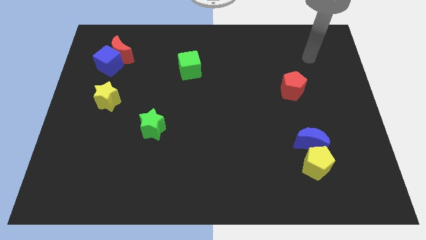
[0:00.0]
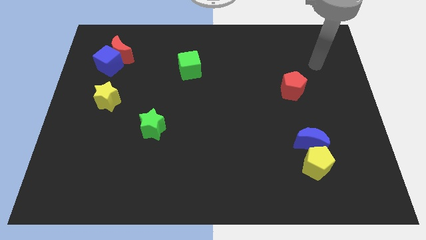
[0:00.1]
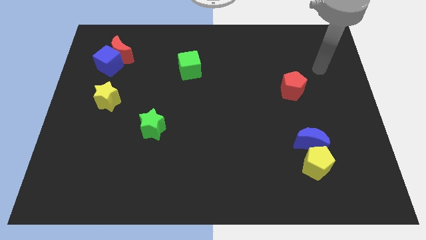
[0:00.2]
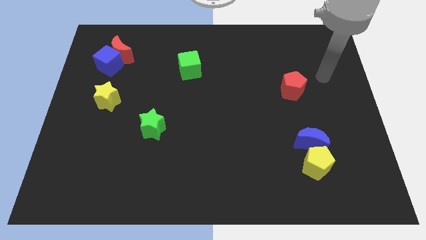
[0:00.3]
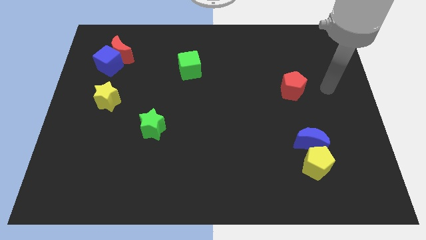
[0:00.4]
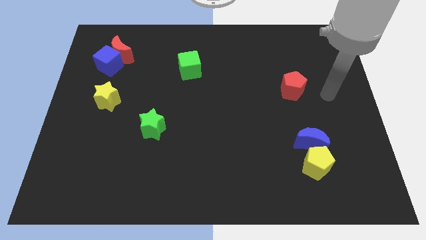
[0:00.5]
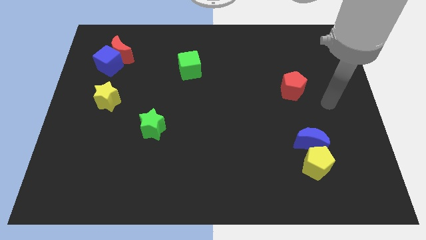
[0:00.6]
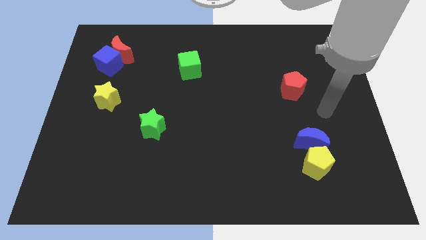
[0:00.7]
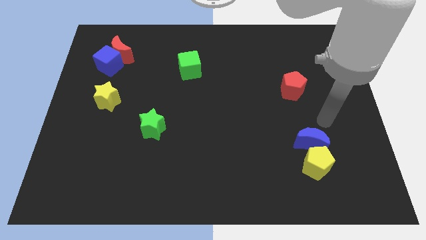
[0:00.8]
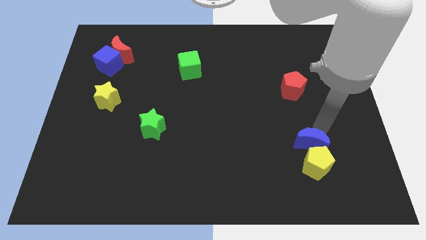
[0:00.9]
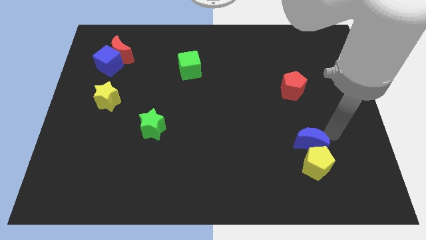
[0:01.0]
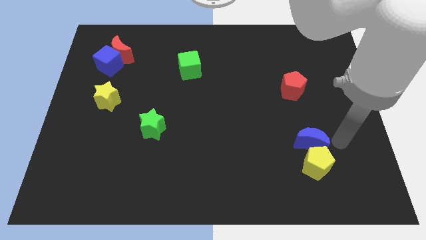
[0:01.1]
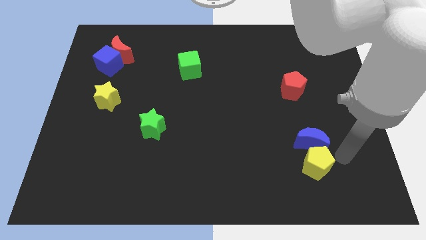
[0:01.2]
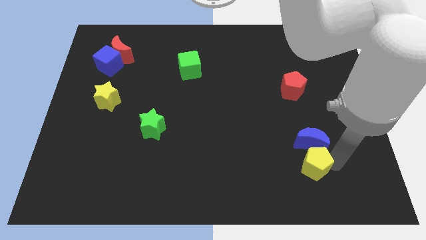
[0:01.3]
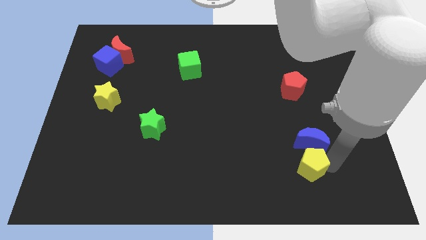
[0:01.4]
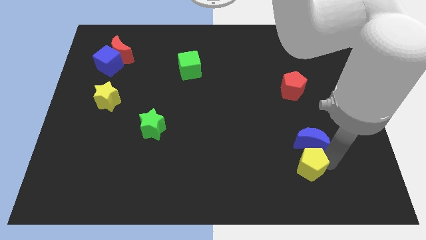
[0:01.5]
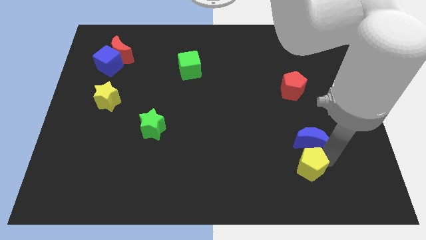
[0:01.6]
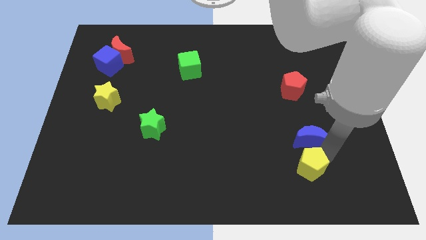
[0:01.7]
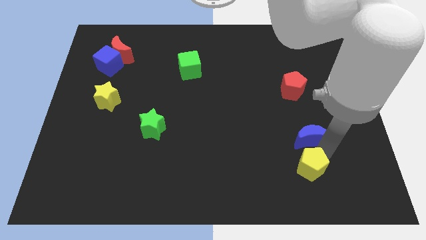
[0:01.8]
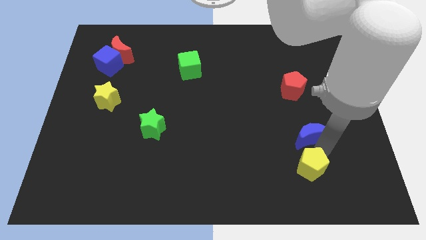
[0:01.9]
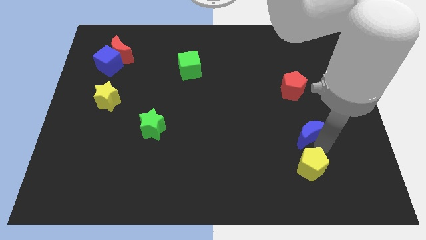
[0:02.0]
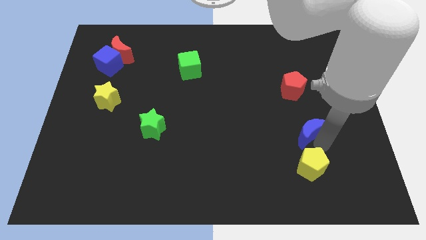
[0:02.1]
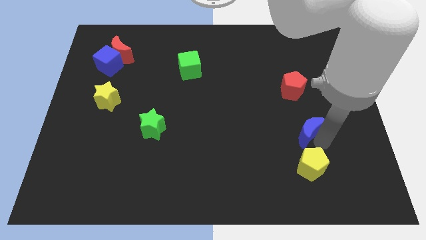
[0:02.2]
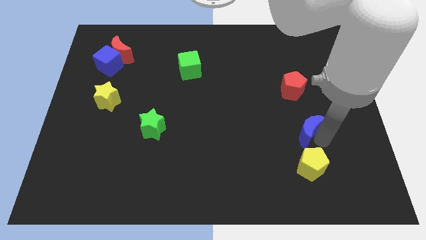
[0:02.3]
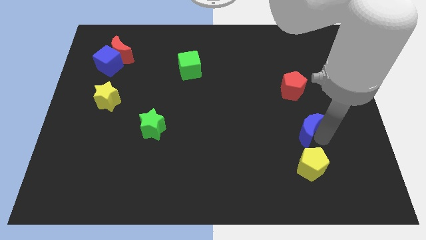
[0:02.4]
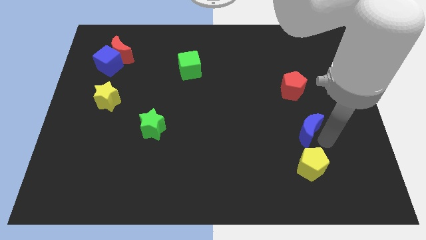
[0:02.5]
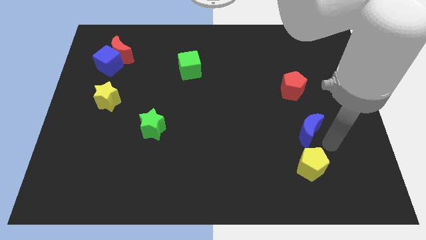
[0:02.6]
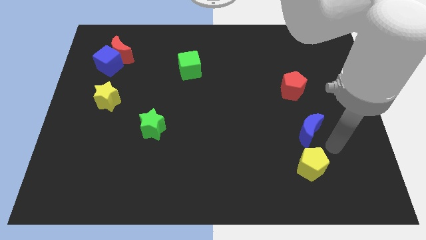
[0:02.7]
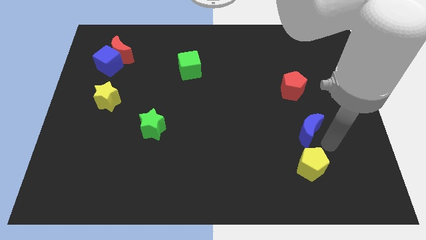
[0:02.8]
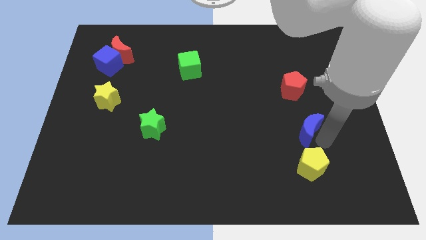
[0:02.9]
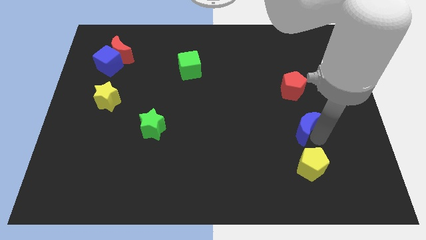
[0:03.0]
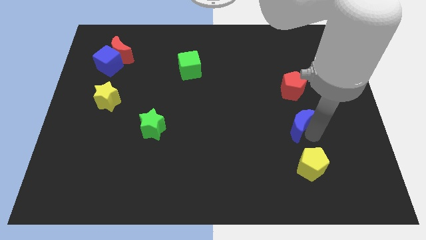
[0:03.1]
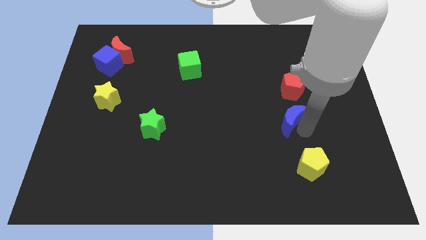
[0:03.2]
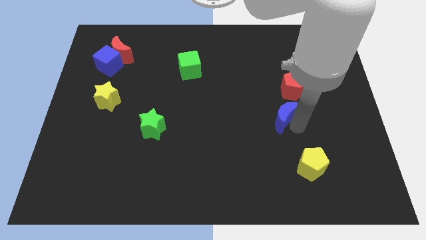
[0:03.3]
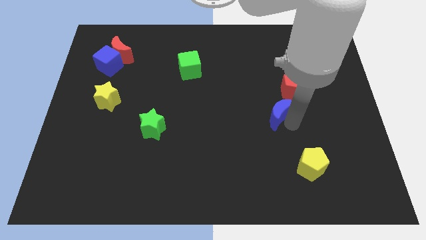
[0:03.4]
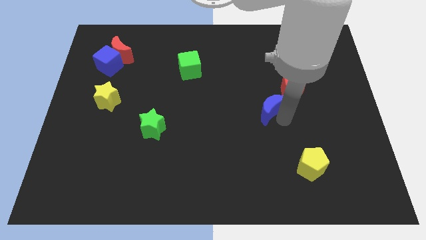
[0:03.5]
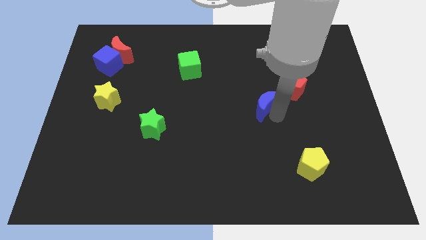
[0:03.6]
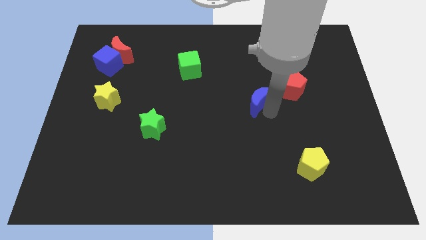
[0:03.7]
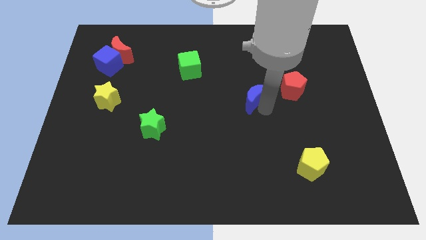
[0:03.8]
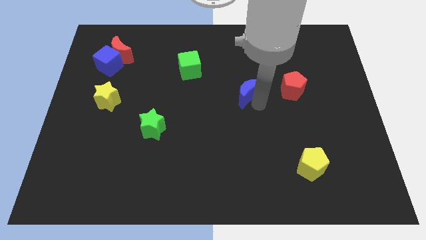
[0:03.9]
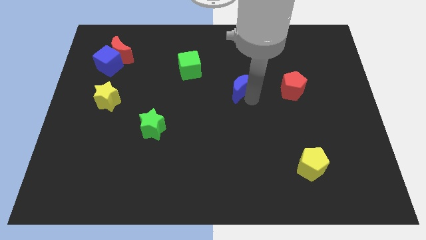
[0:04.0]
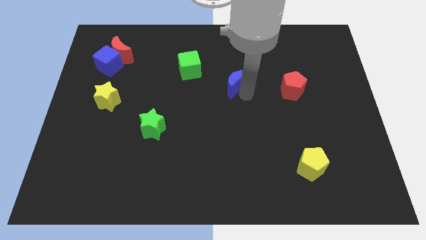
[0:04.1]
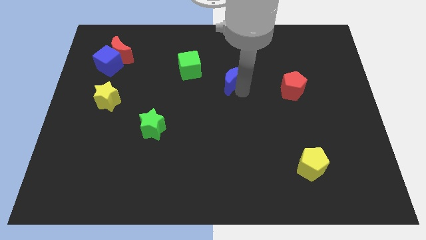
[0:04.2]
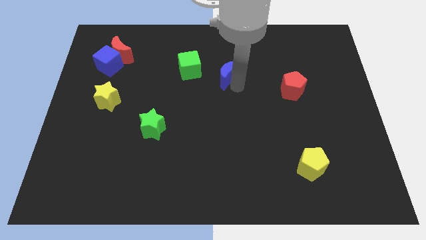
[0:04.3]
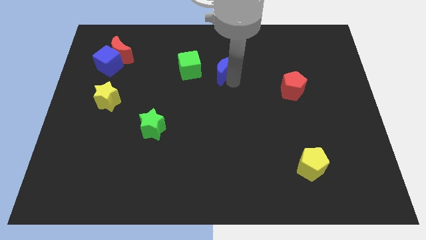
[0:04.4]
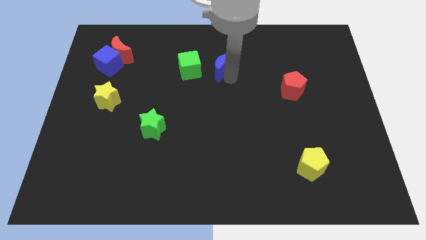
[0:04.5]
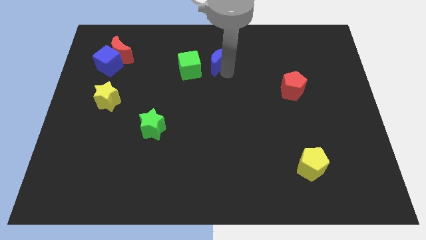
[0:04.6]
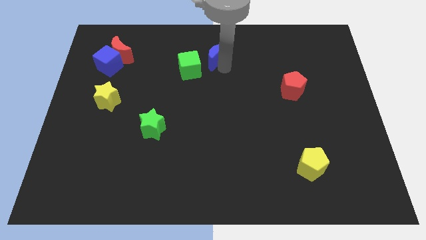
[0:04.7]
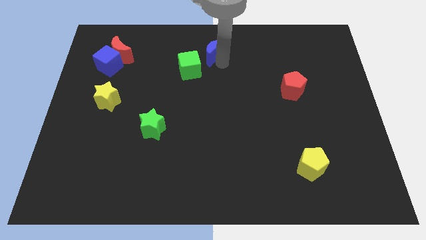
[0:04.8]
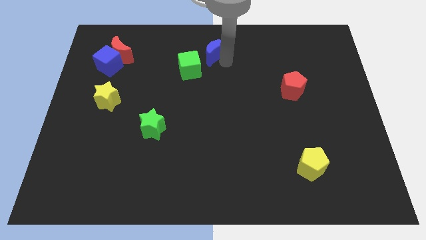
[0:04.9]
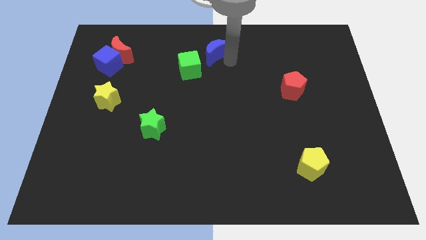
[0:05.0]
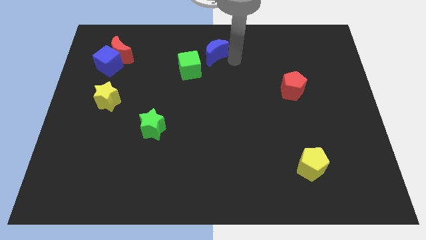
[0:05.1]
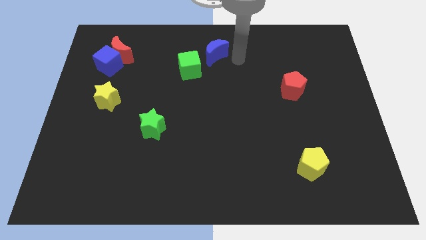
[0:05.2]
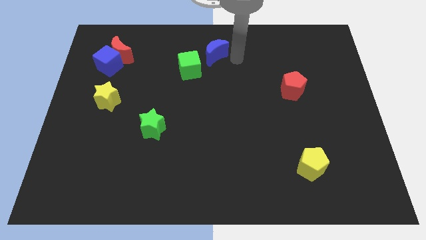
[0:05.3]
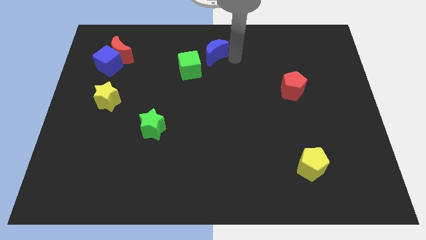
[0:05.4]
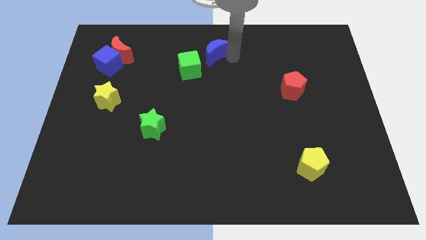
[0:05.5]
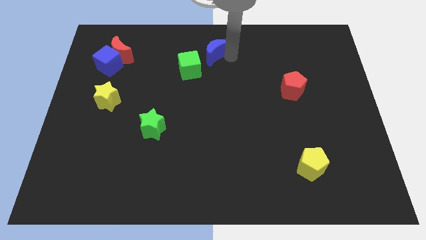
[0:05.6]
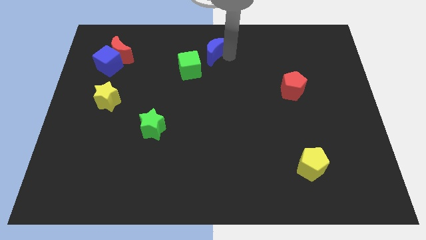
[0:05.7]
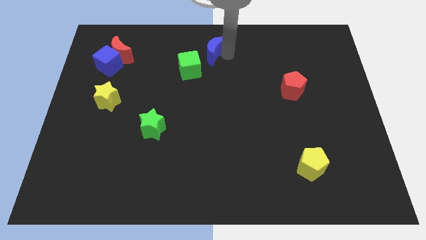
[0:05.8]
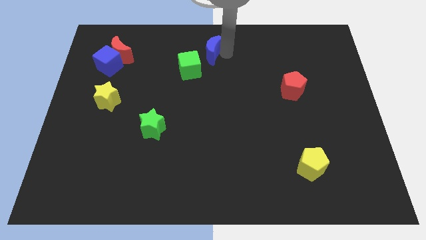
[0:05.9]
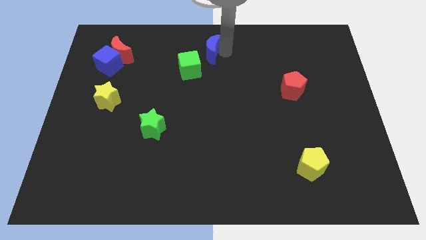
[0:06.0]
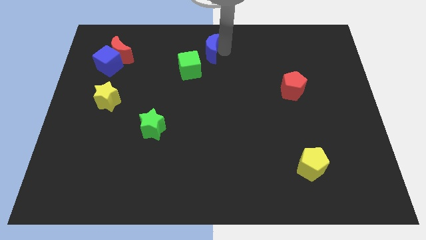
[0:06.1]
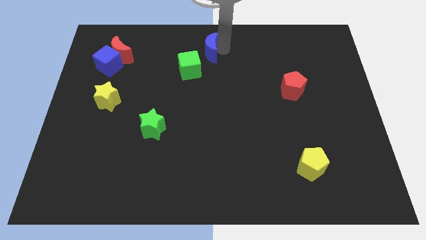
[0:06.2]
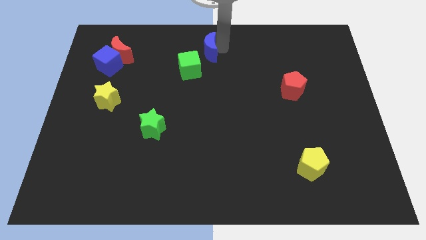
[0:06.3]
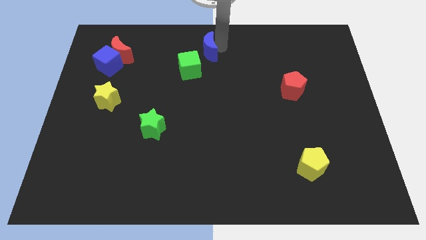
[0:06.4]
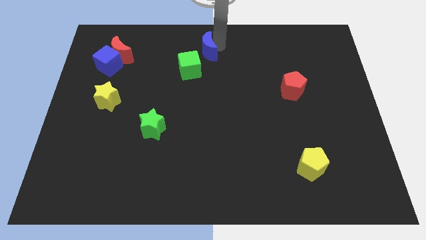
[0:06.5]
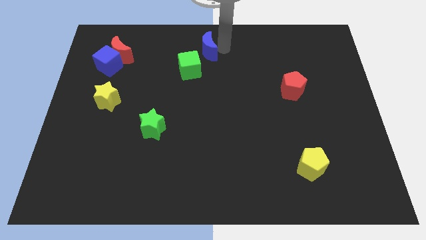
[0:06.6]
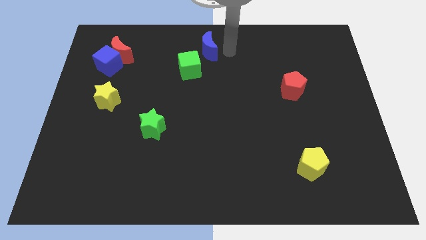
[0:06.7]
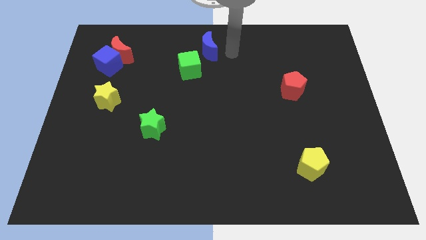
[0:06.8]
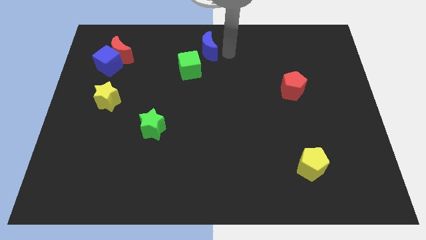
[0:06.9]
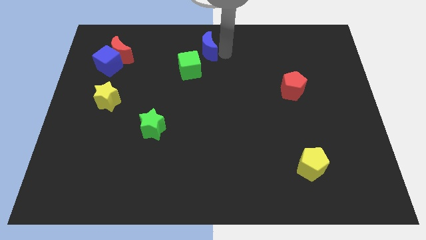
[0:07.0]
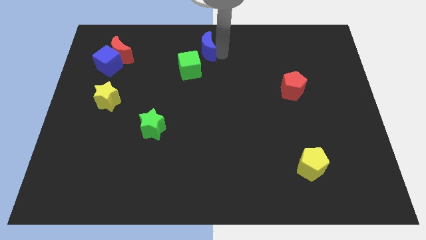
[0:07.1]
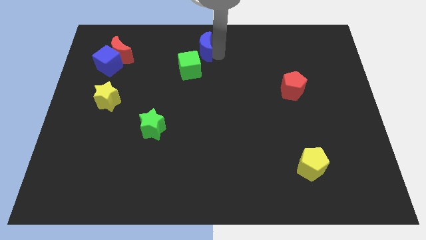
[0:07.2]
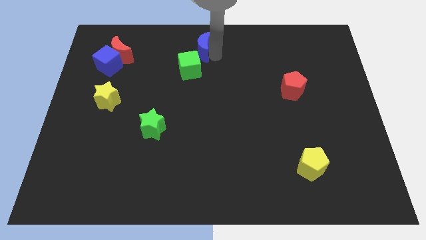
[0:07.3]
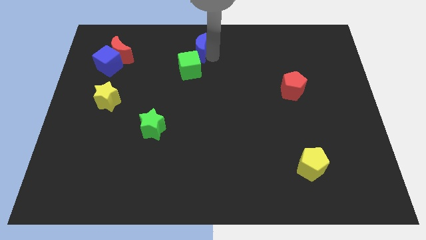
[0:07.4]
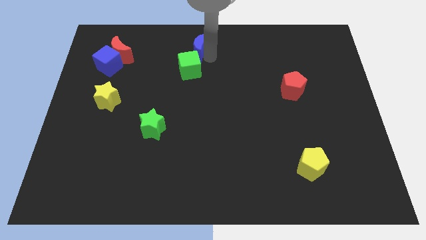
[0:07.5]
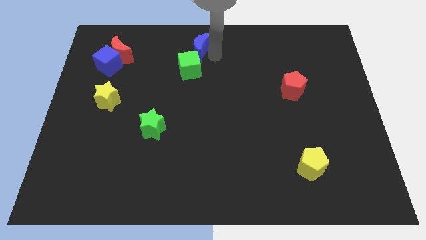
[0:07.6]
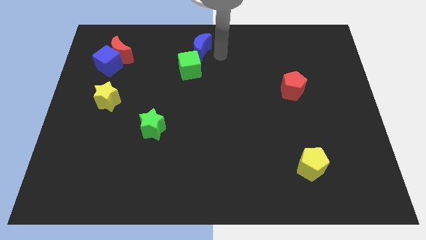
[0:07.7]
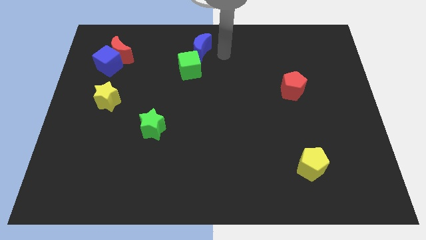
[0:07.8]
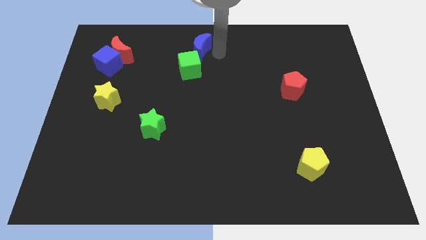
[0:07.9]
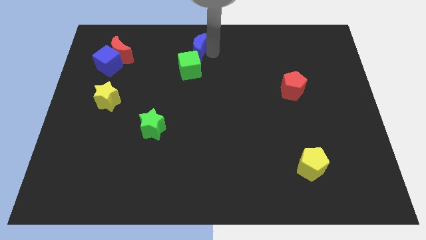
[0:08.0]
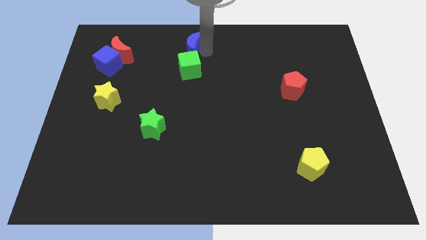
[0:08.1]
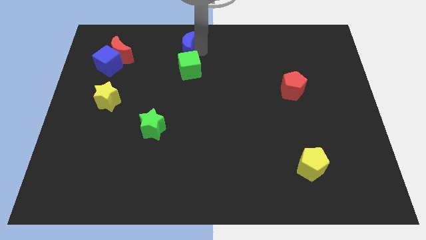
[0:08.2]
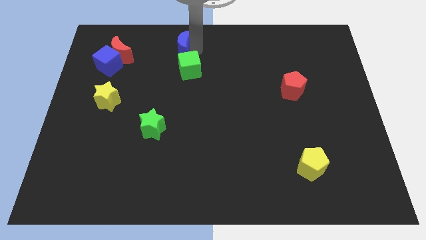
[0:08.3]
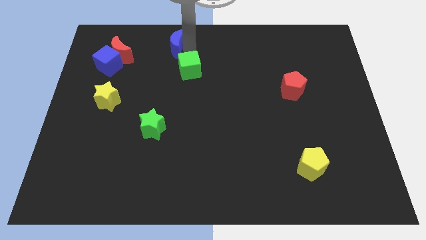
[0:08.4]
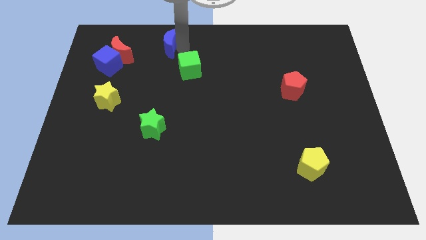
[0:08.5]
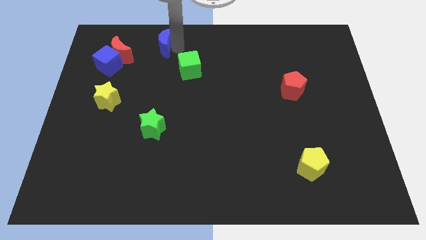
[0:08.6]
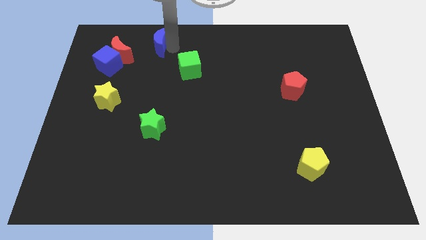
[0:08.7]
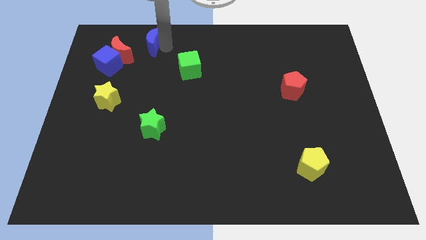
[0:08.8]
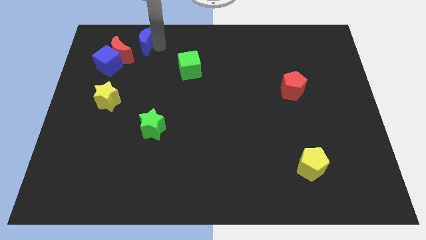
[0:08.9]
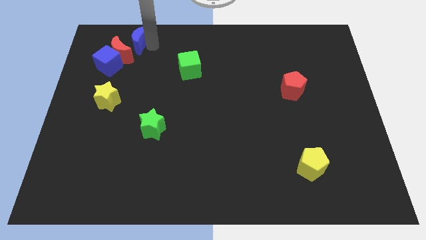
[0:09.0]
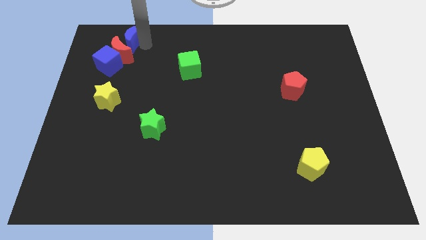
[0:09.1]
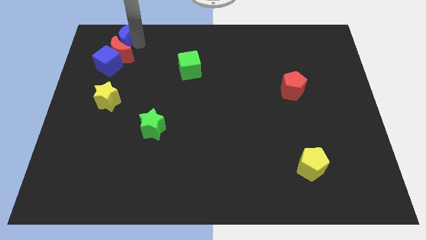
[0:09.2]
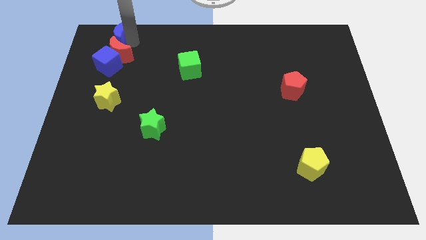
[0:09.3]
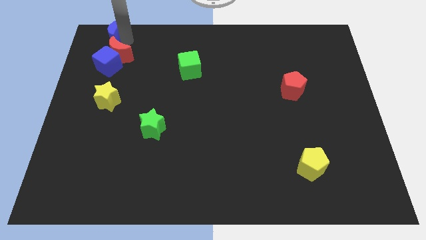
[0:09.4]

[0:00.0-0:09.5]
slide the blue moon to the top left
